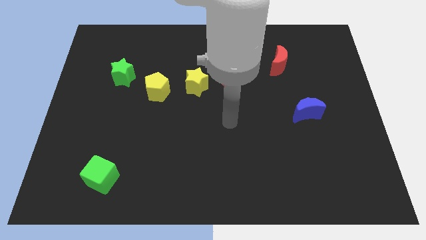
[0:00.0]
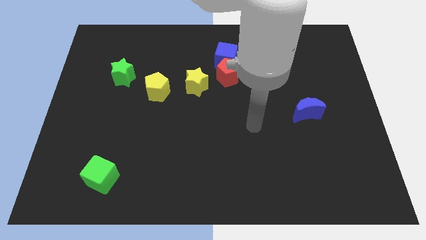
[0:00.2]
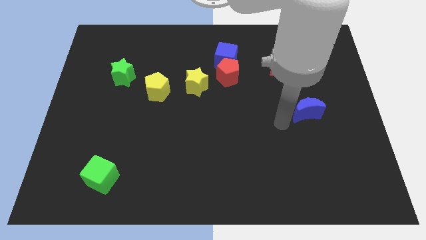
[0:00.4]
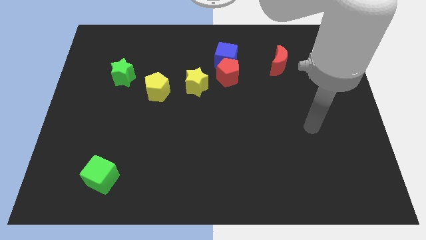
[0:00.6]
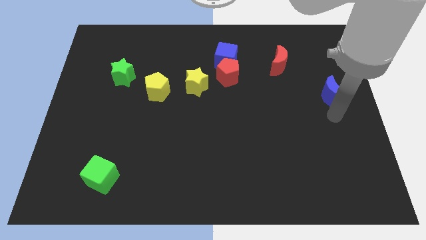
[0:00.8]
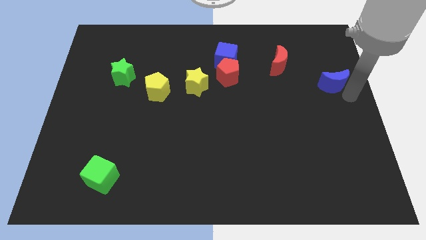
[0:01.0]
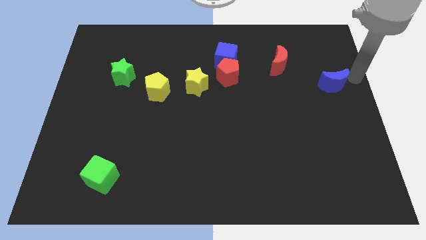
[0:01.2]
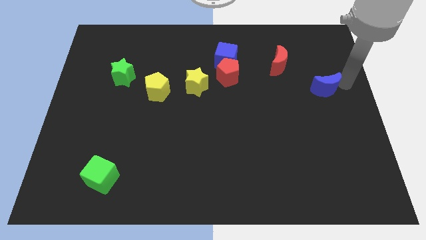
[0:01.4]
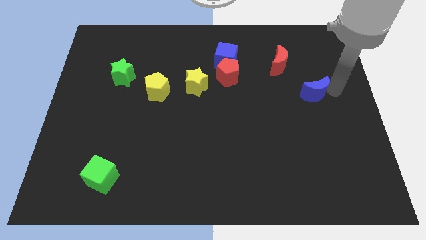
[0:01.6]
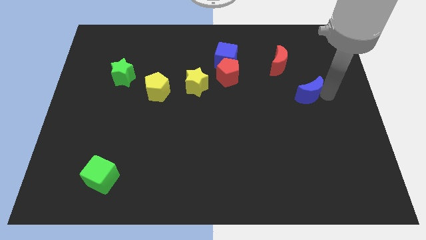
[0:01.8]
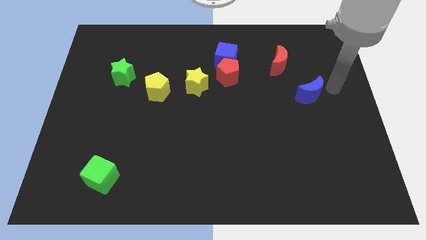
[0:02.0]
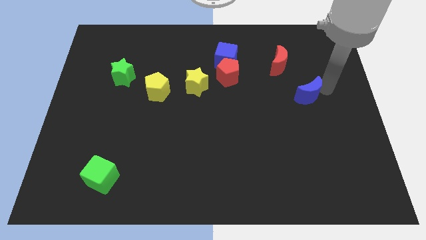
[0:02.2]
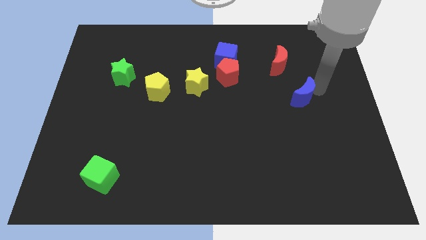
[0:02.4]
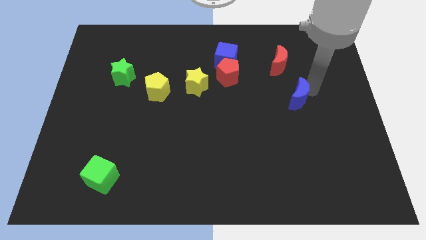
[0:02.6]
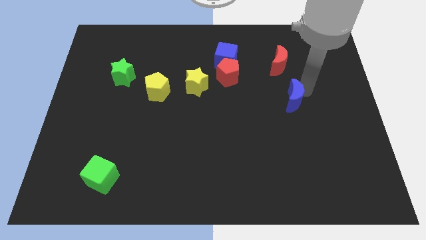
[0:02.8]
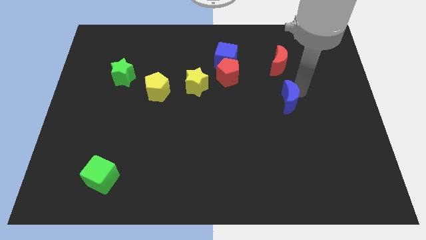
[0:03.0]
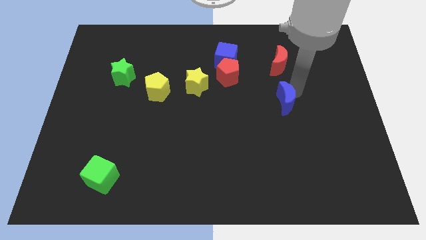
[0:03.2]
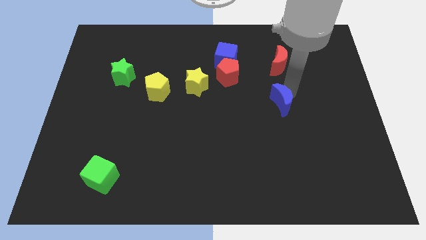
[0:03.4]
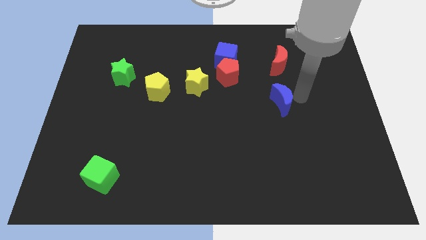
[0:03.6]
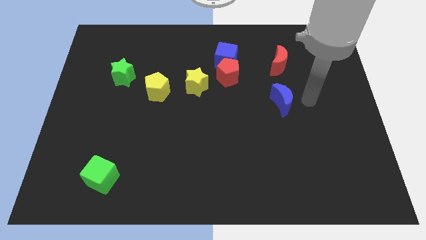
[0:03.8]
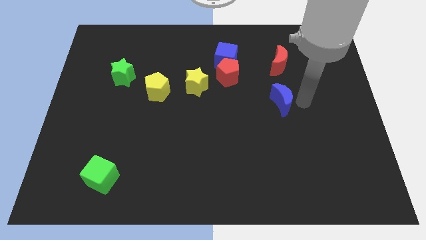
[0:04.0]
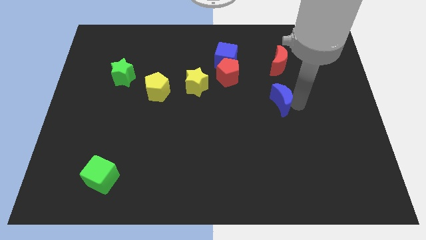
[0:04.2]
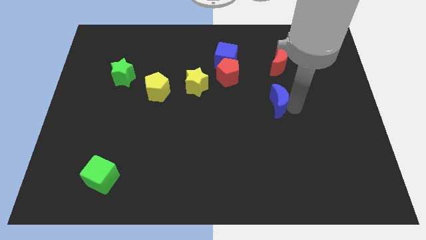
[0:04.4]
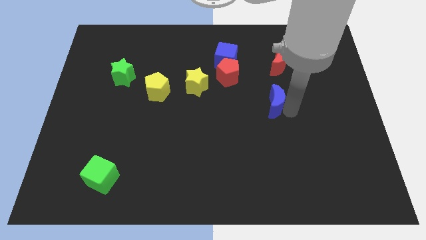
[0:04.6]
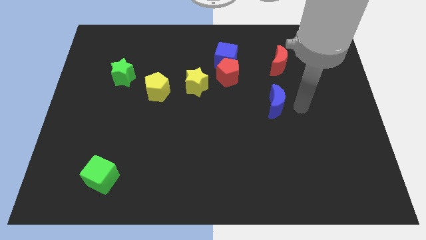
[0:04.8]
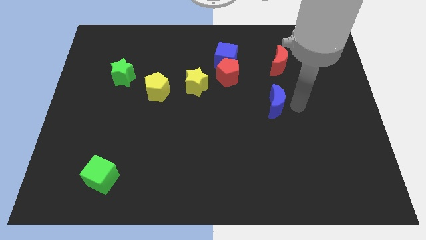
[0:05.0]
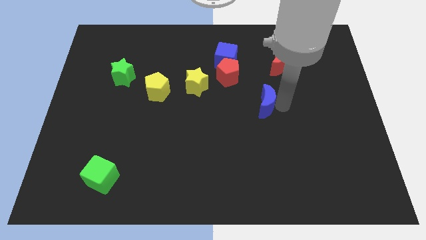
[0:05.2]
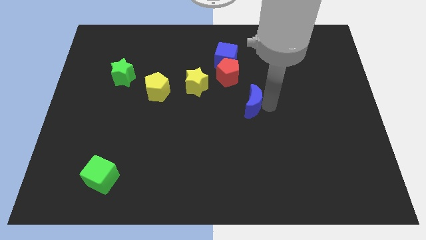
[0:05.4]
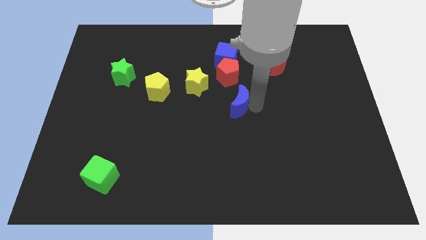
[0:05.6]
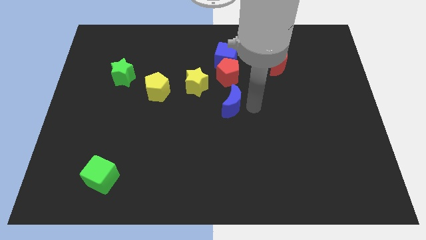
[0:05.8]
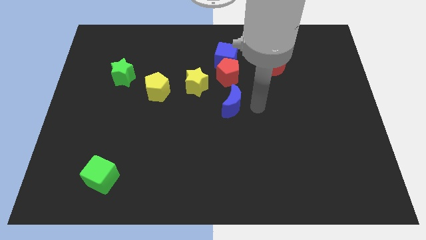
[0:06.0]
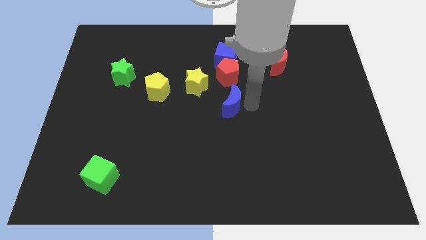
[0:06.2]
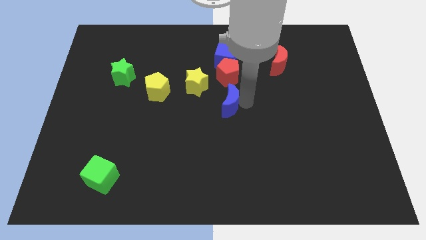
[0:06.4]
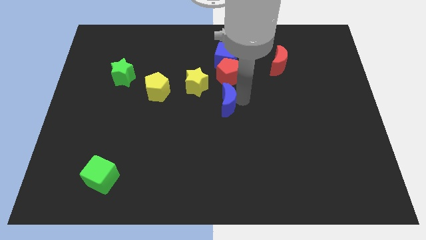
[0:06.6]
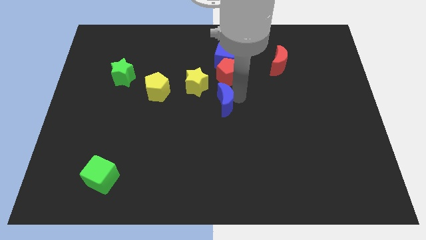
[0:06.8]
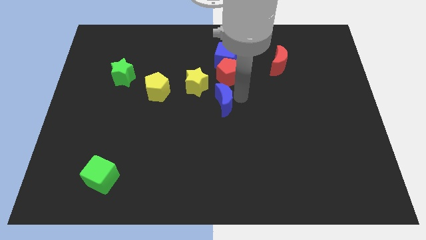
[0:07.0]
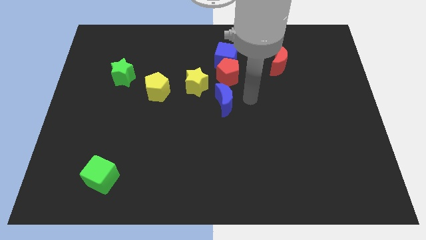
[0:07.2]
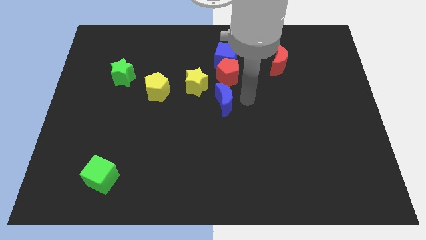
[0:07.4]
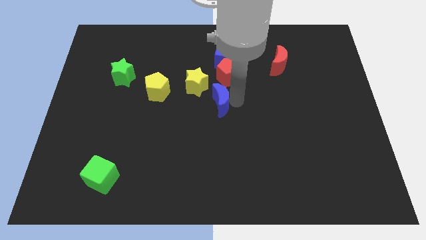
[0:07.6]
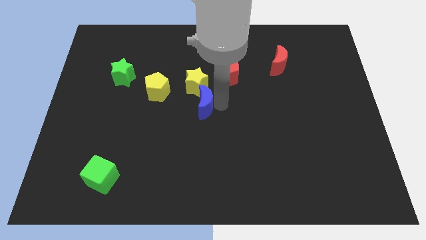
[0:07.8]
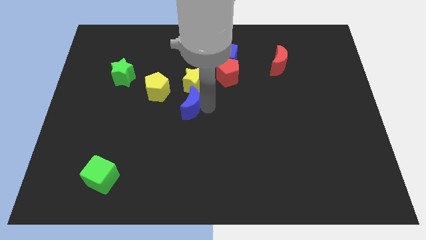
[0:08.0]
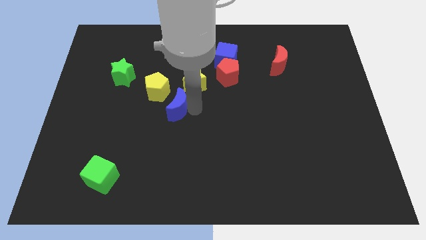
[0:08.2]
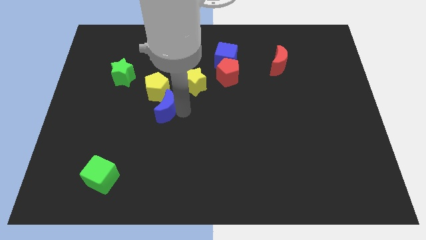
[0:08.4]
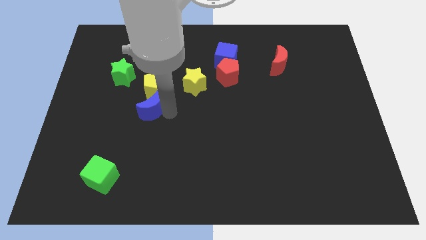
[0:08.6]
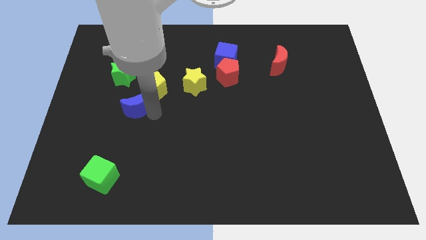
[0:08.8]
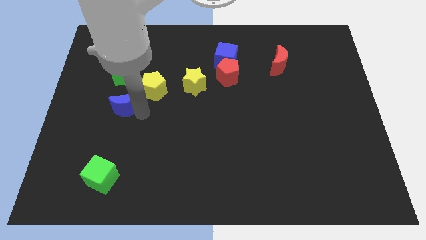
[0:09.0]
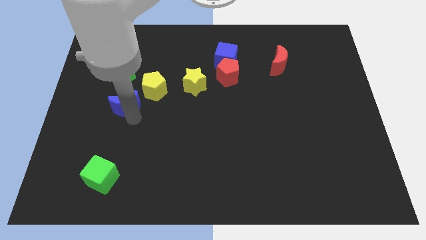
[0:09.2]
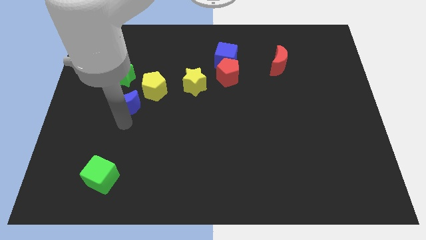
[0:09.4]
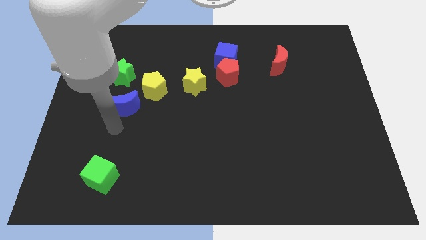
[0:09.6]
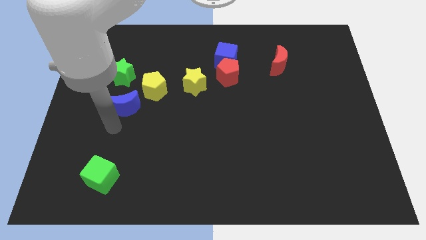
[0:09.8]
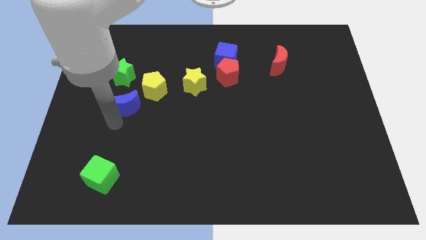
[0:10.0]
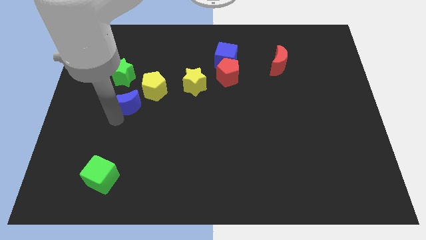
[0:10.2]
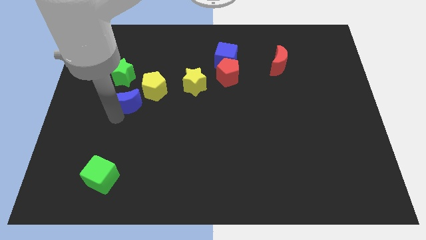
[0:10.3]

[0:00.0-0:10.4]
push the blue moon to the left side of the yellow pentagon

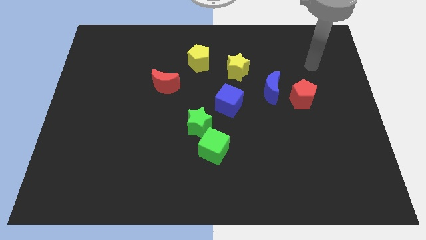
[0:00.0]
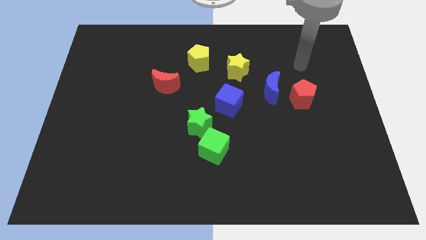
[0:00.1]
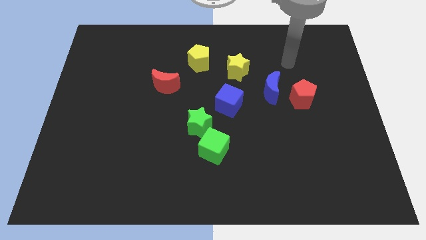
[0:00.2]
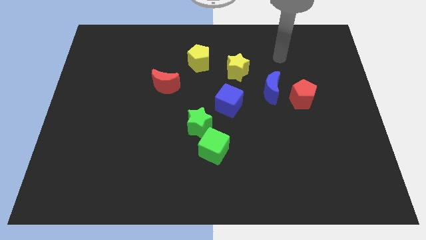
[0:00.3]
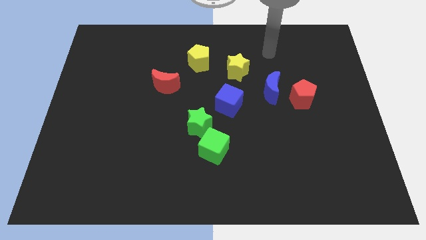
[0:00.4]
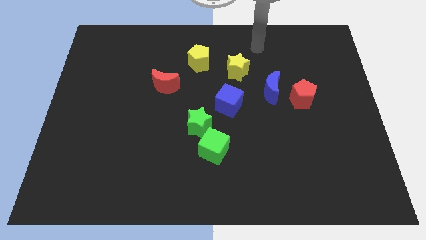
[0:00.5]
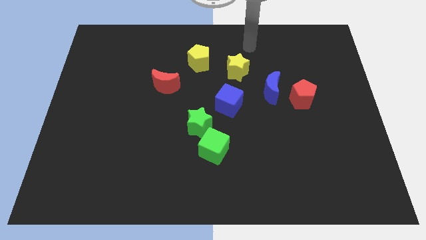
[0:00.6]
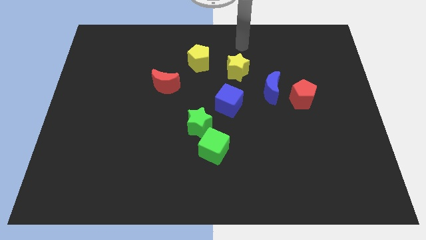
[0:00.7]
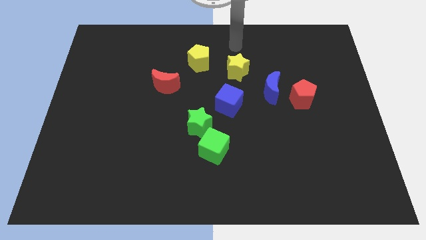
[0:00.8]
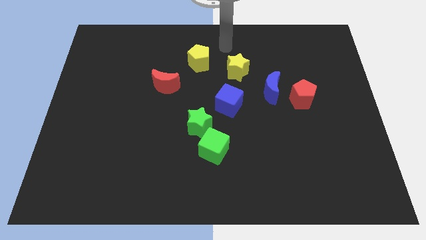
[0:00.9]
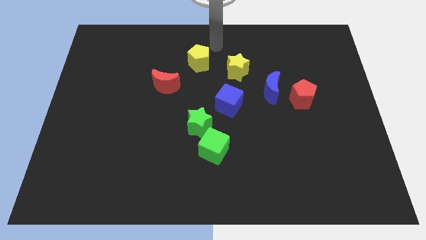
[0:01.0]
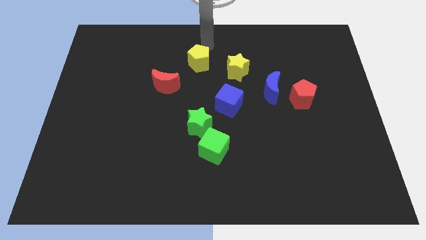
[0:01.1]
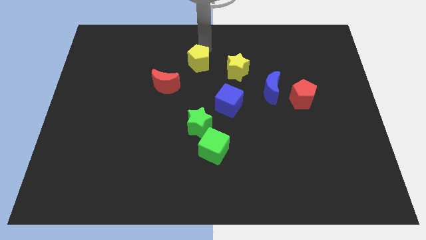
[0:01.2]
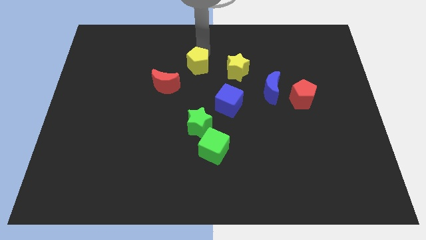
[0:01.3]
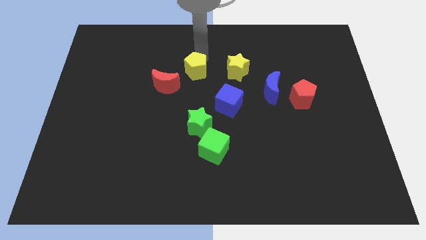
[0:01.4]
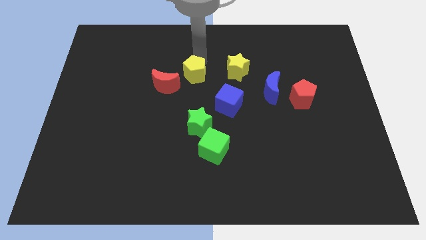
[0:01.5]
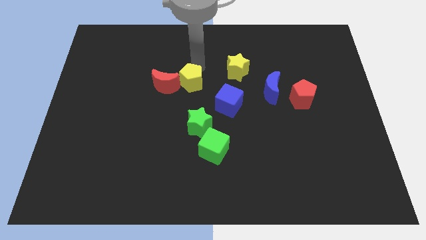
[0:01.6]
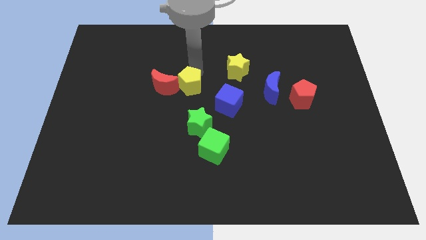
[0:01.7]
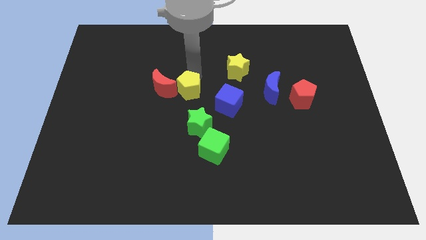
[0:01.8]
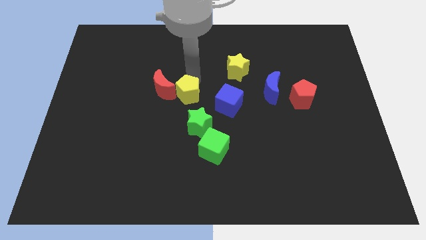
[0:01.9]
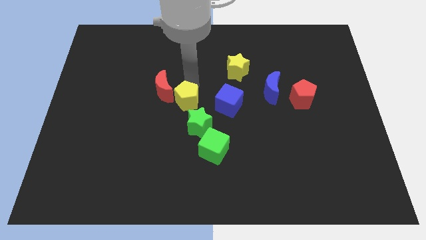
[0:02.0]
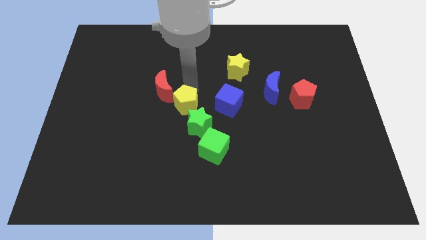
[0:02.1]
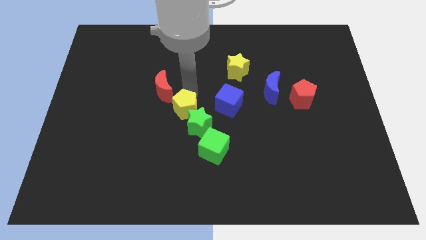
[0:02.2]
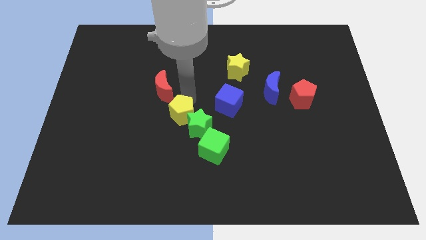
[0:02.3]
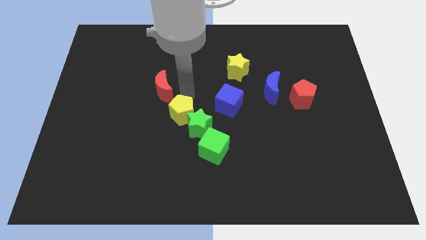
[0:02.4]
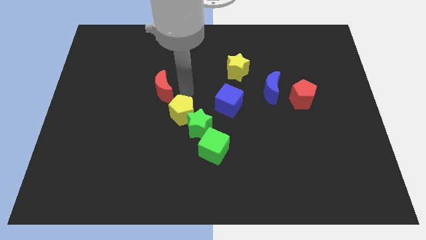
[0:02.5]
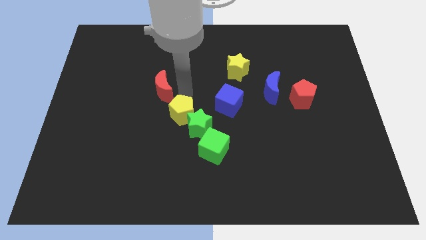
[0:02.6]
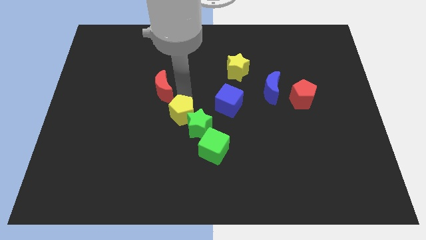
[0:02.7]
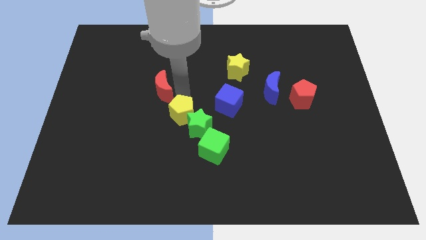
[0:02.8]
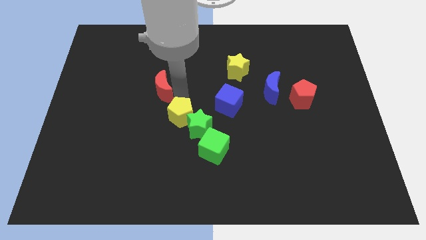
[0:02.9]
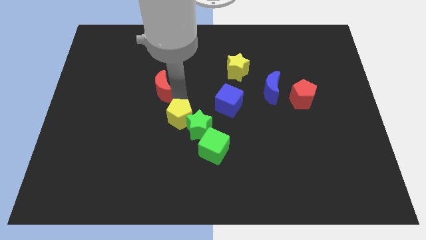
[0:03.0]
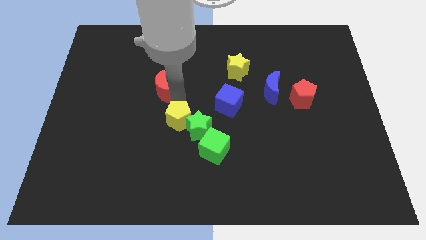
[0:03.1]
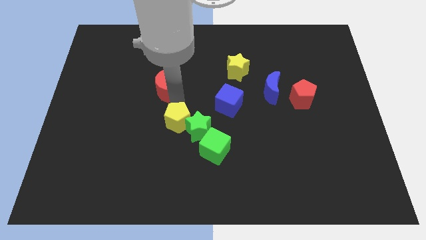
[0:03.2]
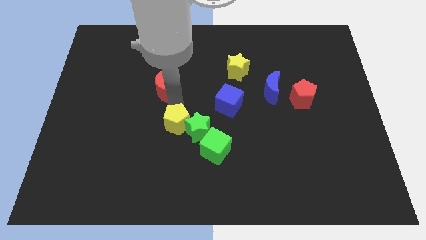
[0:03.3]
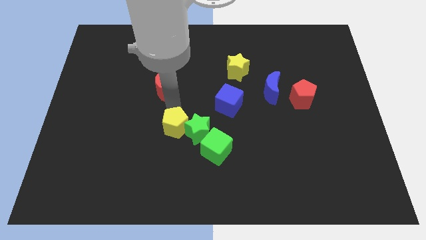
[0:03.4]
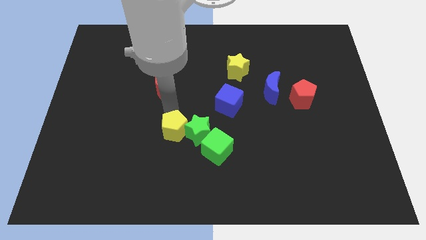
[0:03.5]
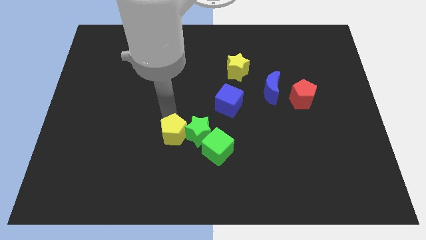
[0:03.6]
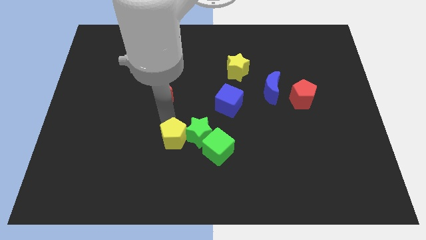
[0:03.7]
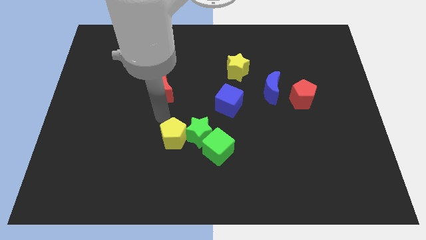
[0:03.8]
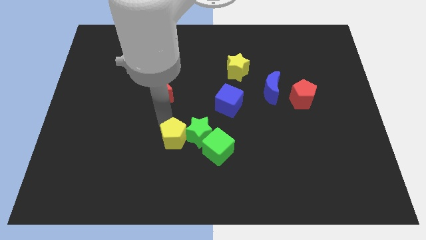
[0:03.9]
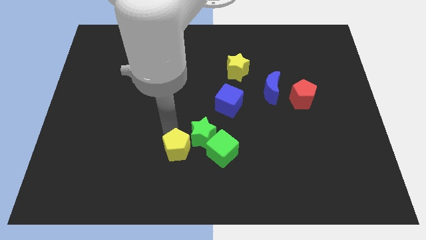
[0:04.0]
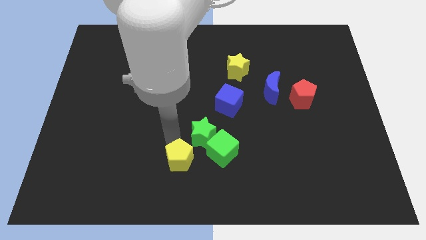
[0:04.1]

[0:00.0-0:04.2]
put the yellow pentagon to the bottom of the green star
